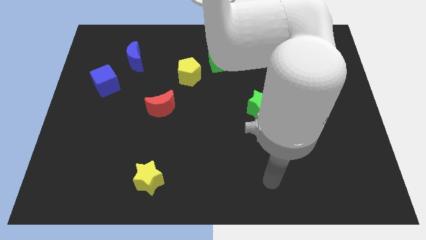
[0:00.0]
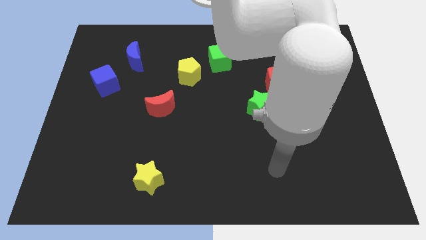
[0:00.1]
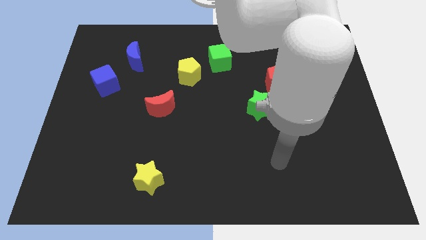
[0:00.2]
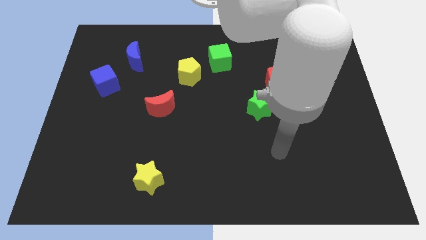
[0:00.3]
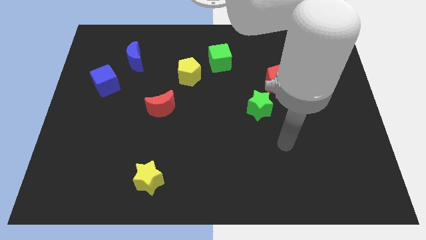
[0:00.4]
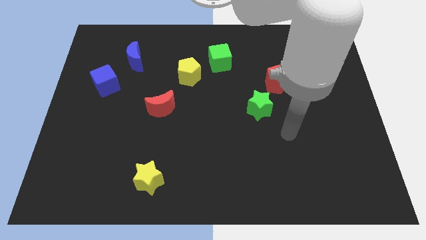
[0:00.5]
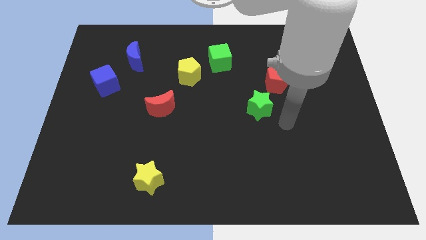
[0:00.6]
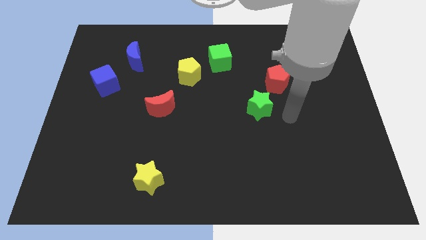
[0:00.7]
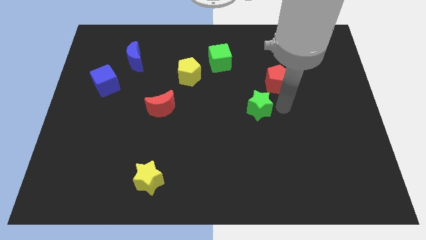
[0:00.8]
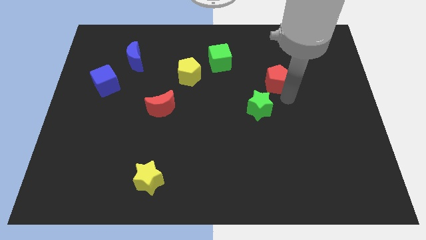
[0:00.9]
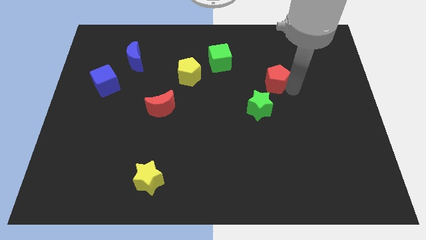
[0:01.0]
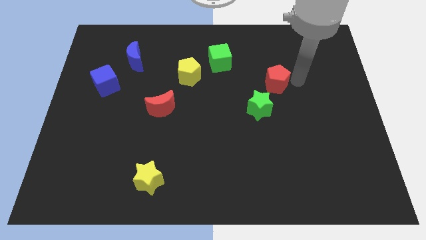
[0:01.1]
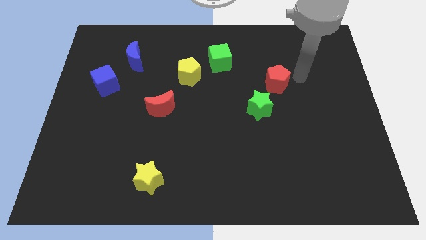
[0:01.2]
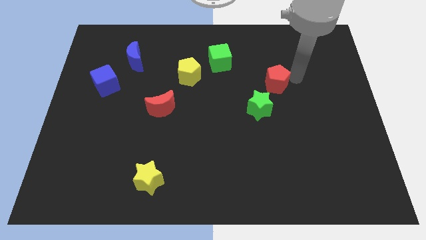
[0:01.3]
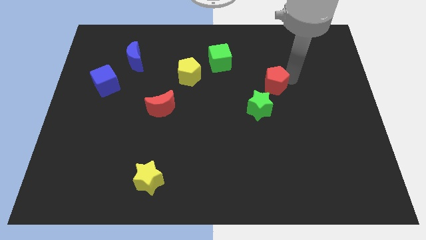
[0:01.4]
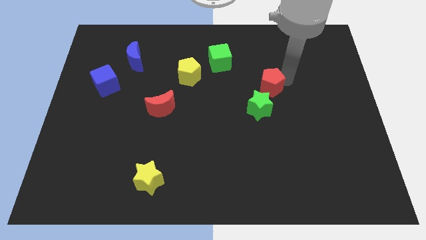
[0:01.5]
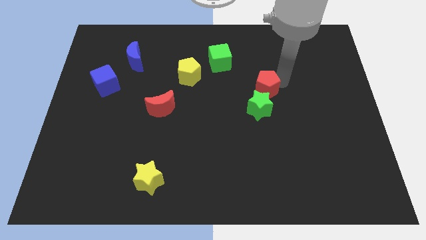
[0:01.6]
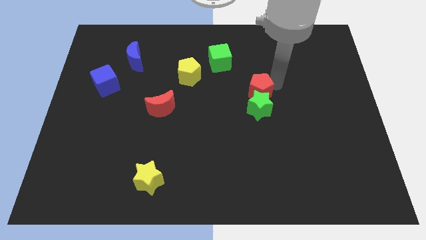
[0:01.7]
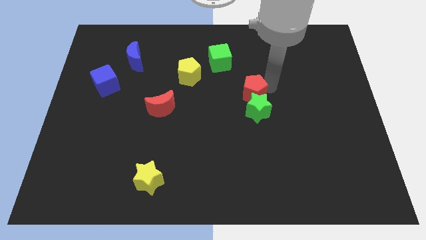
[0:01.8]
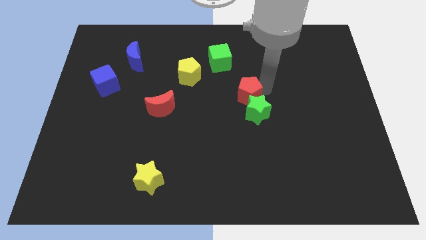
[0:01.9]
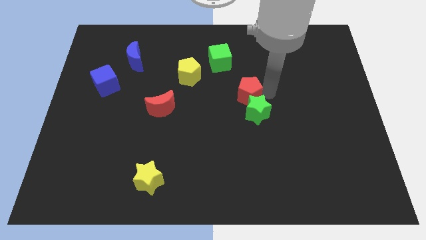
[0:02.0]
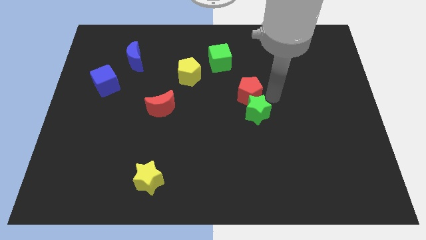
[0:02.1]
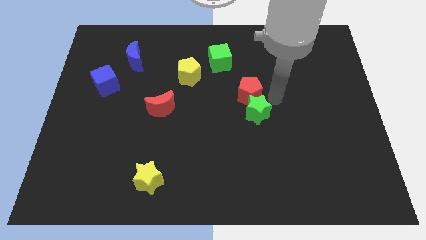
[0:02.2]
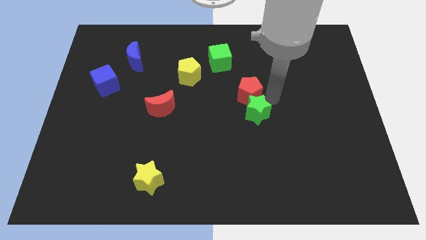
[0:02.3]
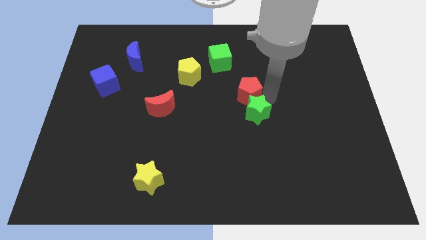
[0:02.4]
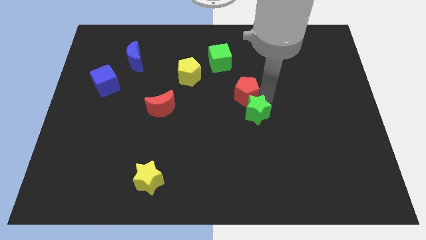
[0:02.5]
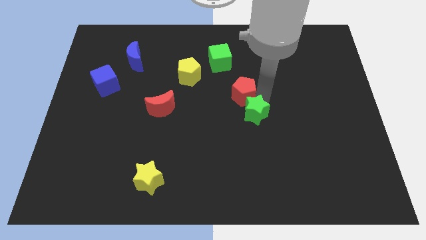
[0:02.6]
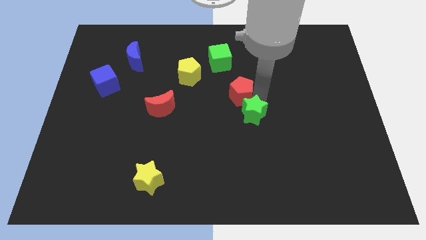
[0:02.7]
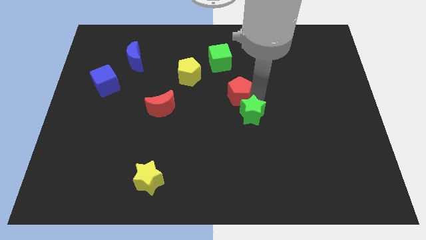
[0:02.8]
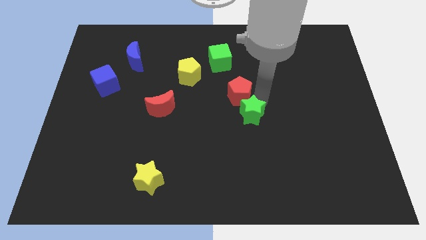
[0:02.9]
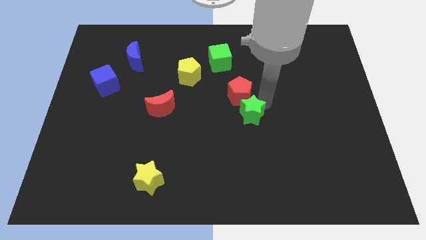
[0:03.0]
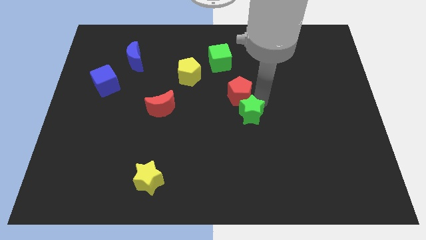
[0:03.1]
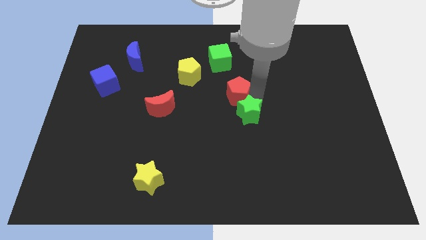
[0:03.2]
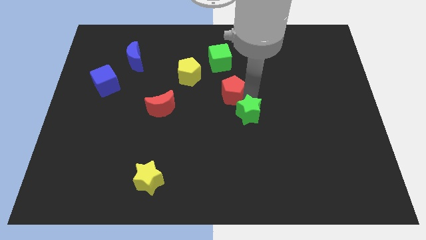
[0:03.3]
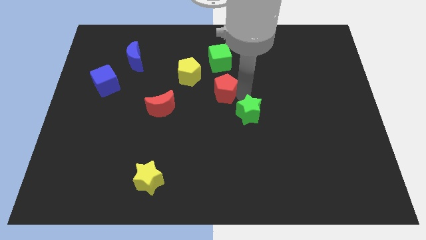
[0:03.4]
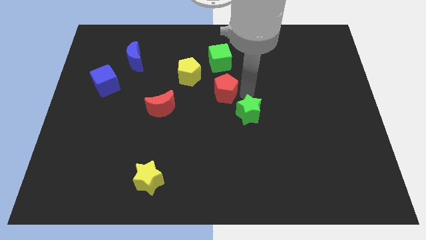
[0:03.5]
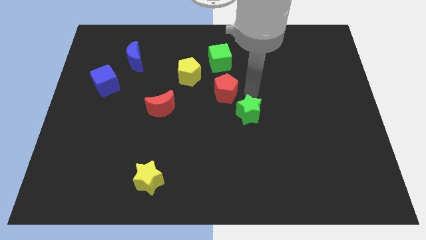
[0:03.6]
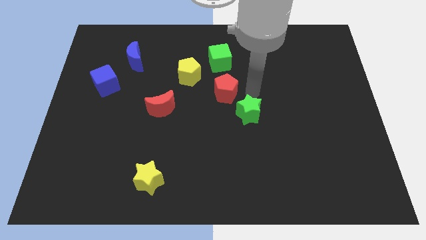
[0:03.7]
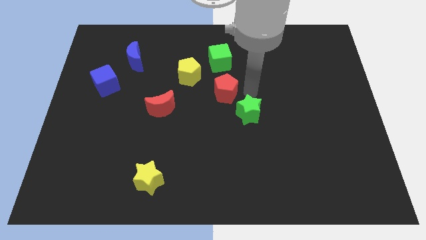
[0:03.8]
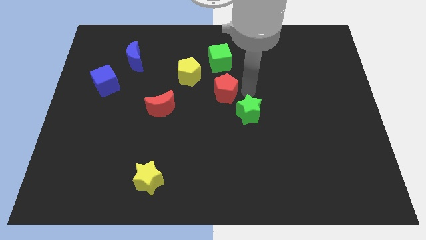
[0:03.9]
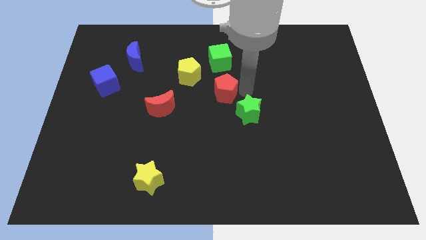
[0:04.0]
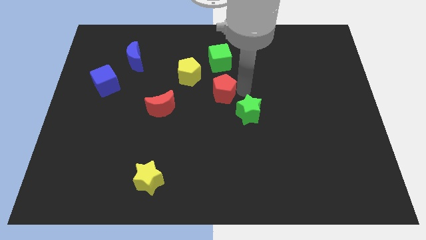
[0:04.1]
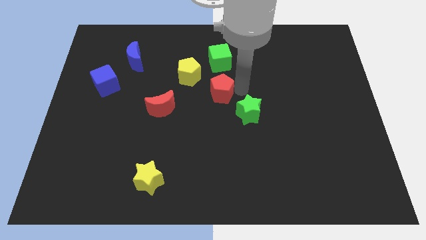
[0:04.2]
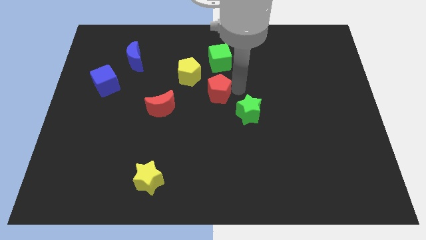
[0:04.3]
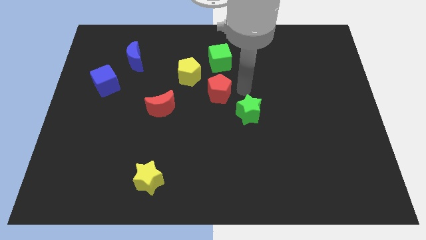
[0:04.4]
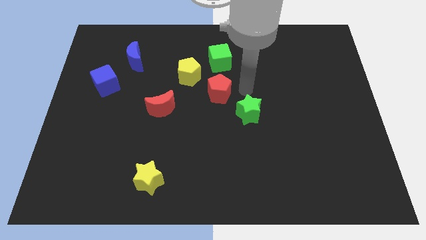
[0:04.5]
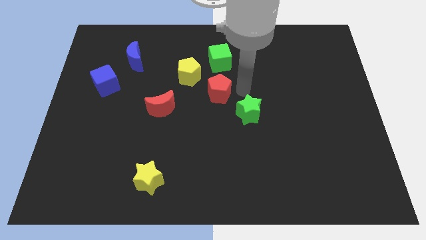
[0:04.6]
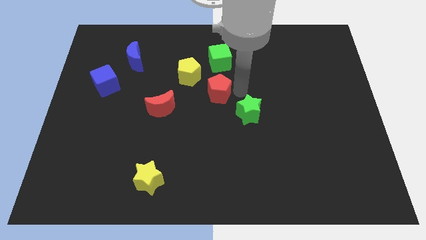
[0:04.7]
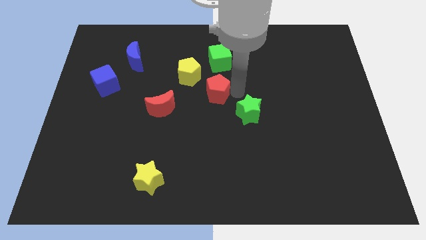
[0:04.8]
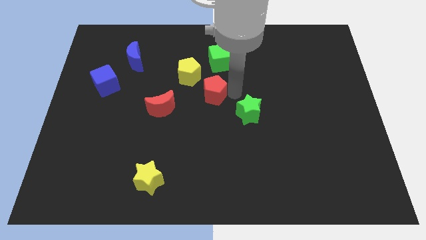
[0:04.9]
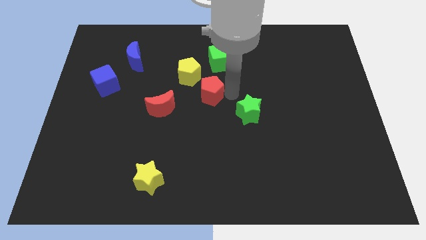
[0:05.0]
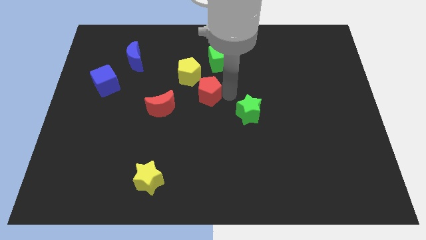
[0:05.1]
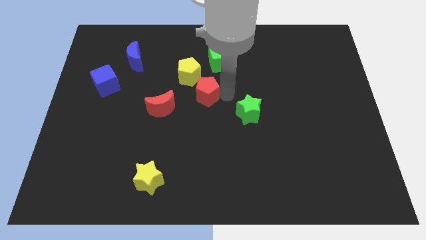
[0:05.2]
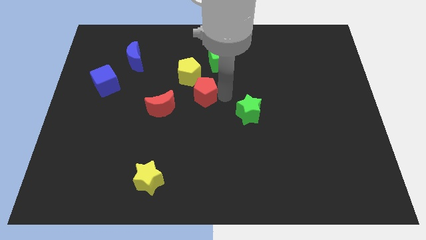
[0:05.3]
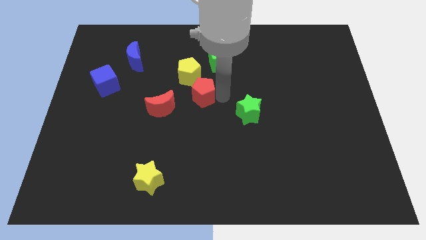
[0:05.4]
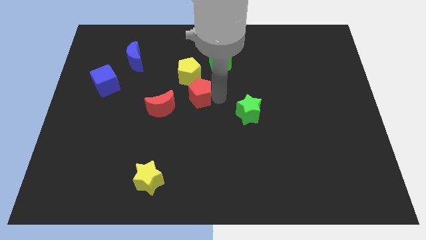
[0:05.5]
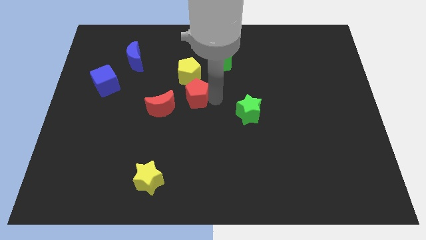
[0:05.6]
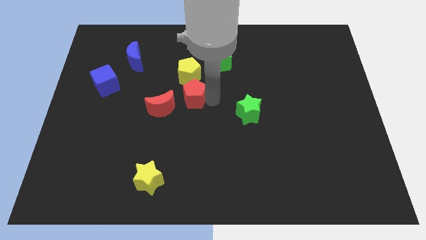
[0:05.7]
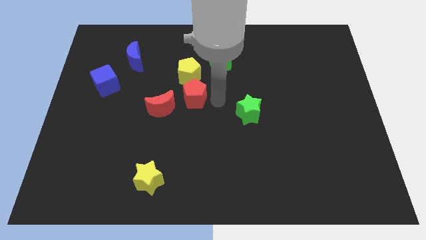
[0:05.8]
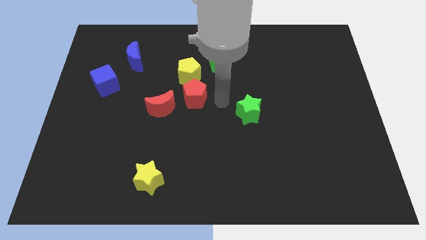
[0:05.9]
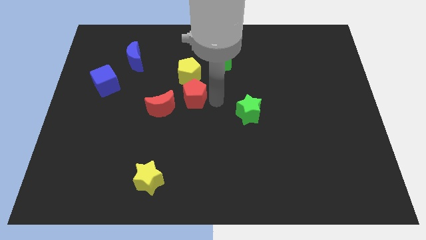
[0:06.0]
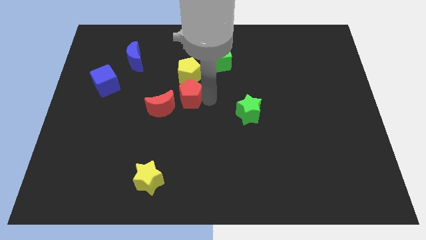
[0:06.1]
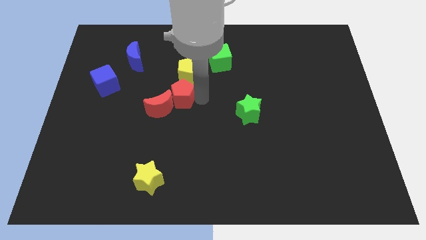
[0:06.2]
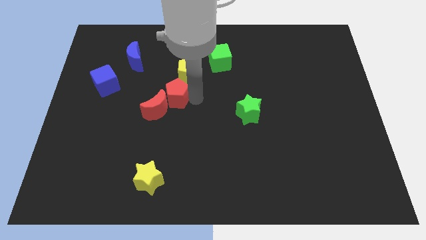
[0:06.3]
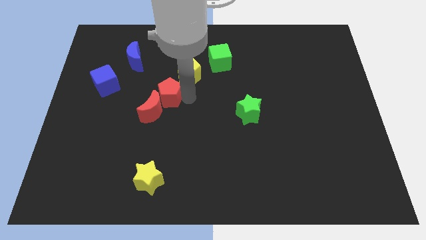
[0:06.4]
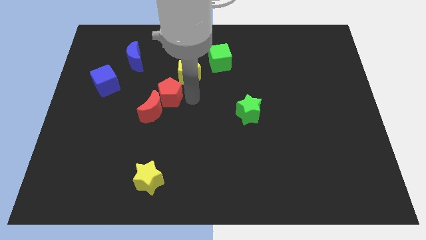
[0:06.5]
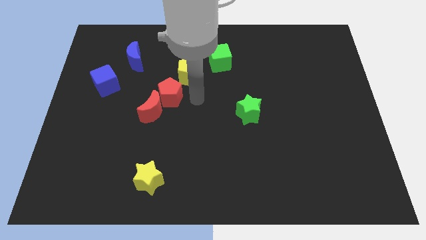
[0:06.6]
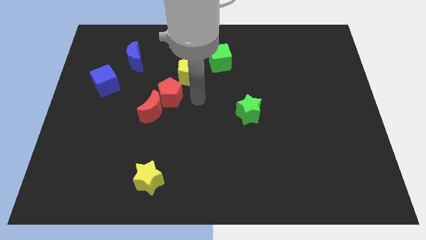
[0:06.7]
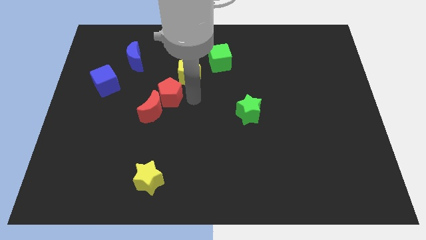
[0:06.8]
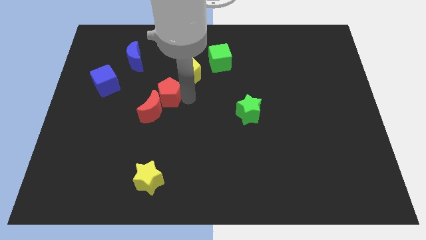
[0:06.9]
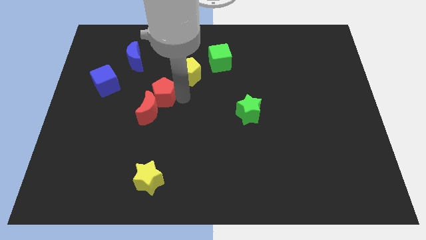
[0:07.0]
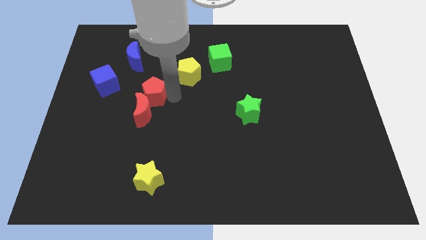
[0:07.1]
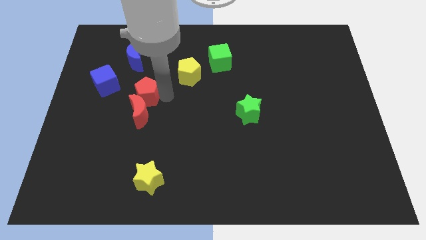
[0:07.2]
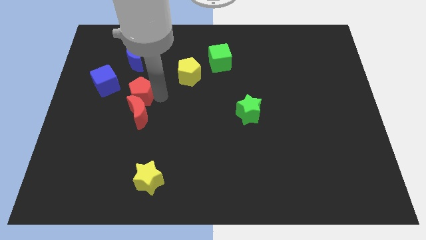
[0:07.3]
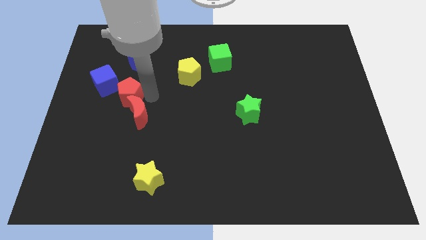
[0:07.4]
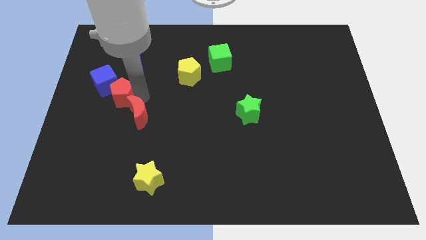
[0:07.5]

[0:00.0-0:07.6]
push the red pentagon towards the blue cube

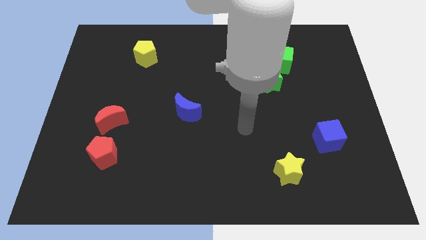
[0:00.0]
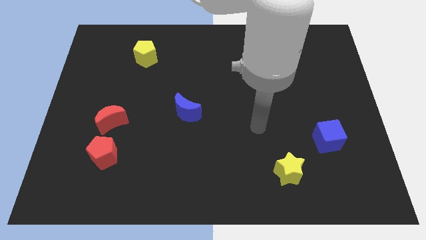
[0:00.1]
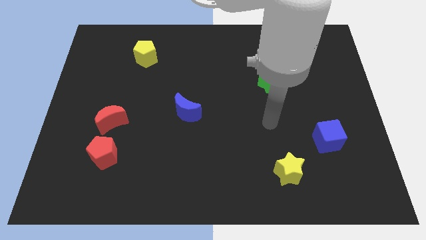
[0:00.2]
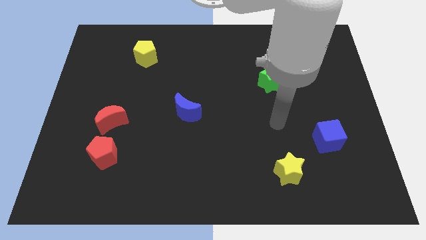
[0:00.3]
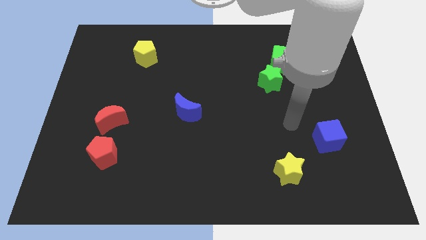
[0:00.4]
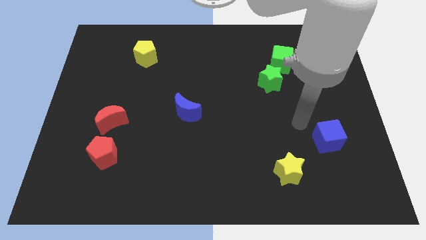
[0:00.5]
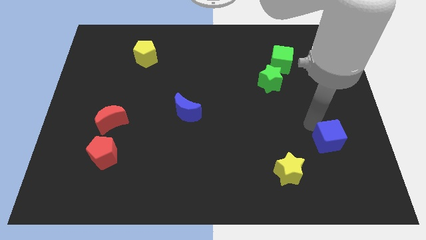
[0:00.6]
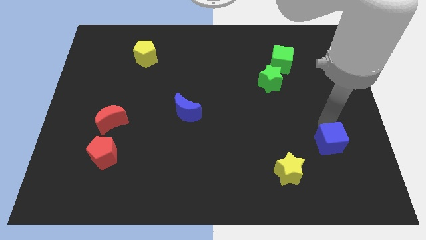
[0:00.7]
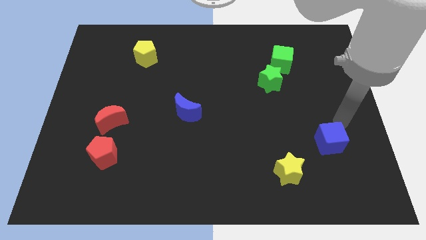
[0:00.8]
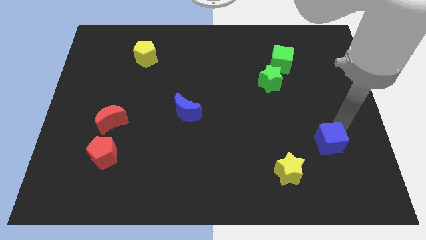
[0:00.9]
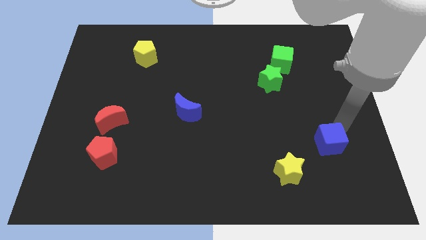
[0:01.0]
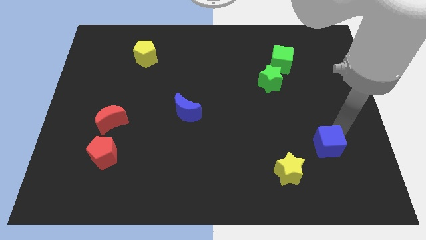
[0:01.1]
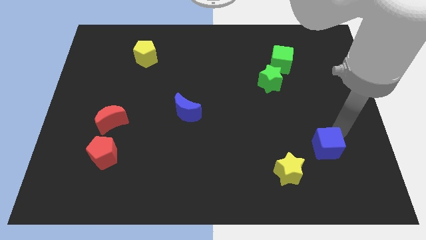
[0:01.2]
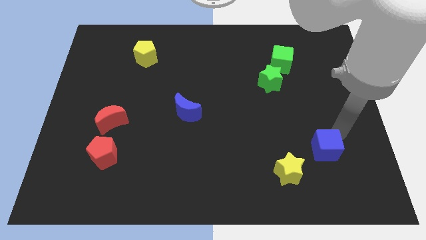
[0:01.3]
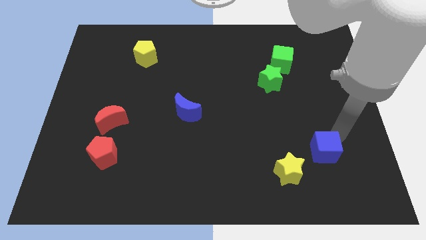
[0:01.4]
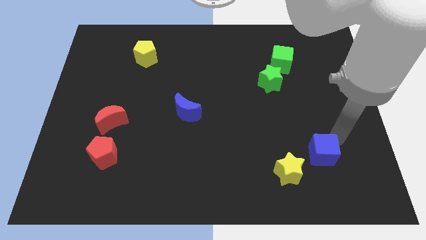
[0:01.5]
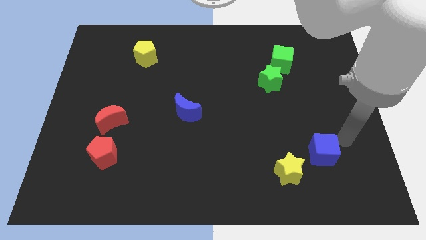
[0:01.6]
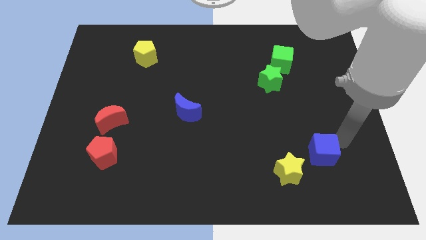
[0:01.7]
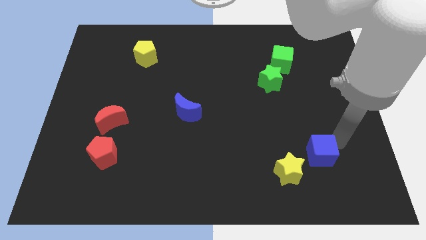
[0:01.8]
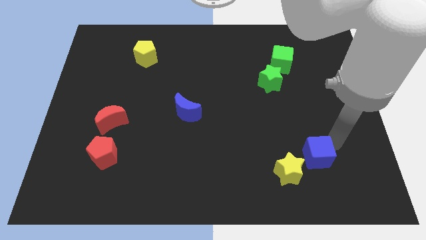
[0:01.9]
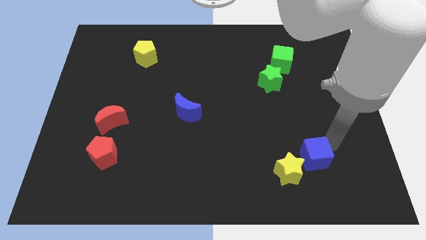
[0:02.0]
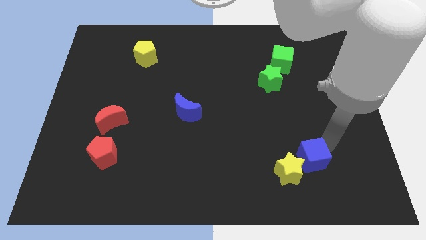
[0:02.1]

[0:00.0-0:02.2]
put the blue cube towards the yellow star
